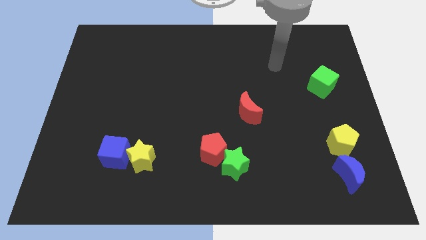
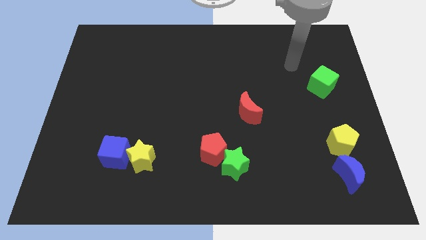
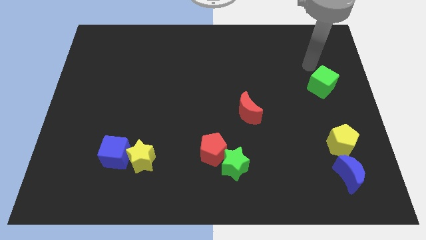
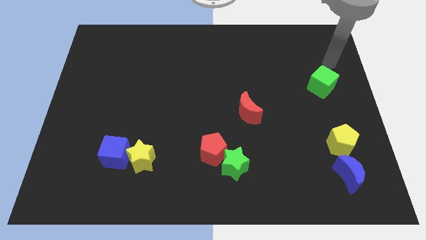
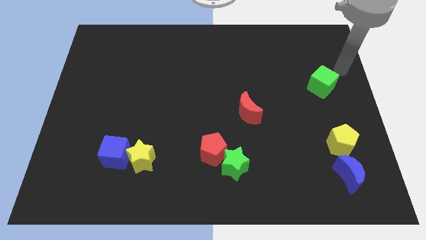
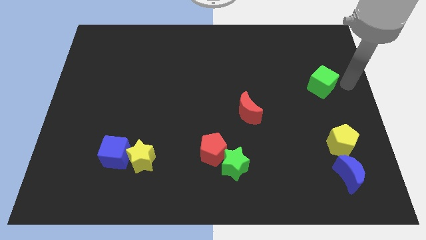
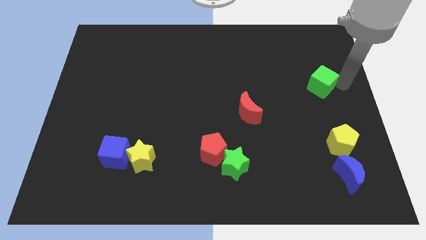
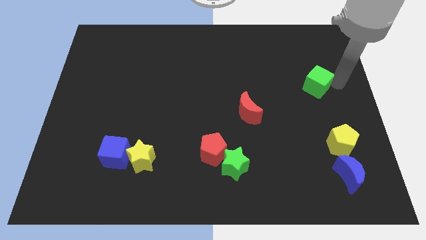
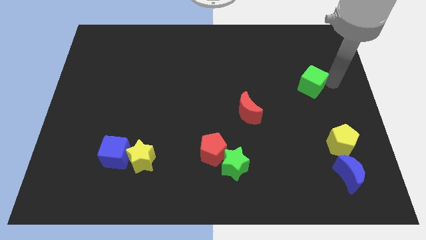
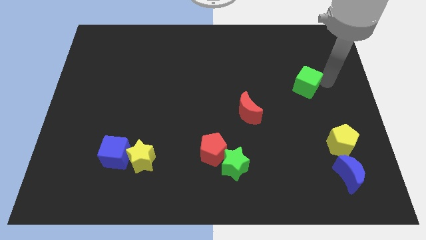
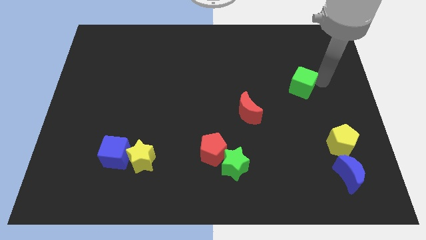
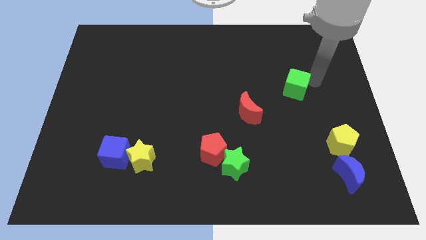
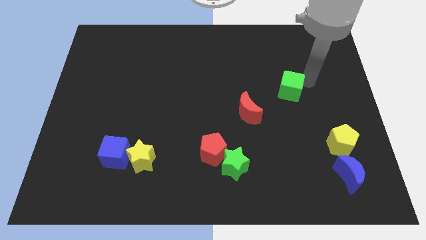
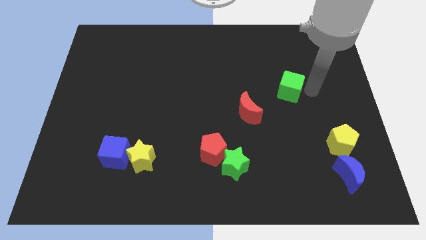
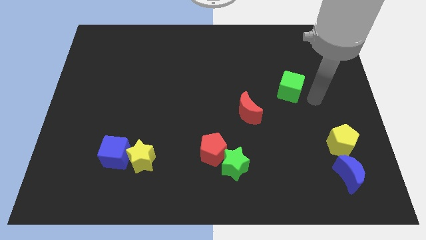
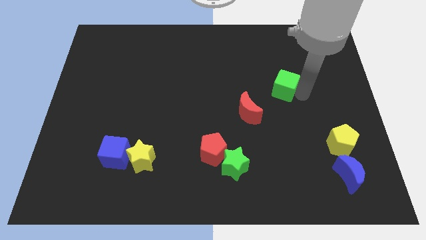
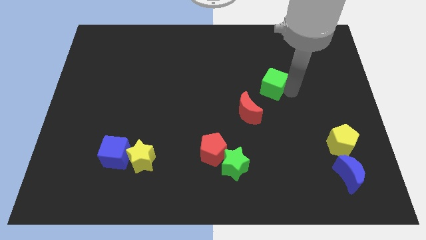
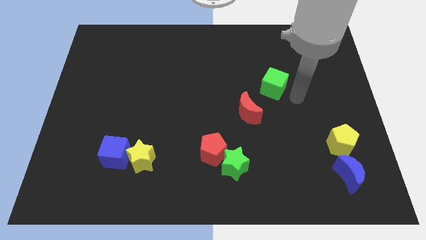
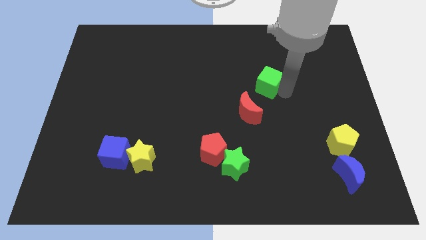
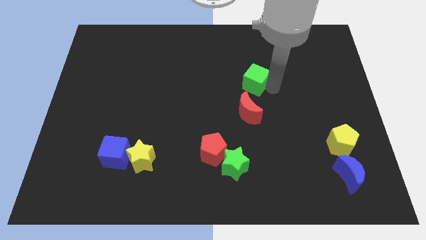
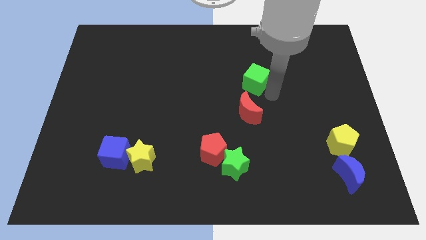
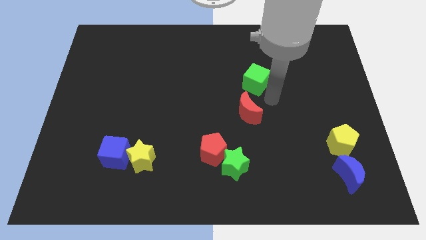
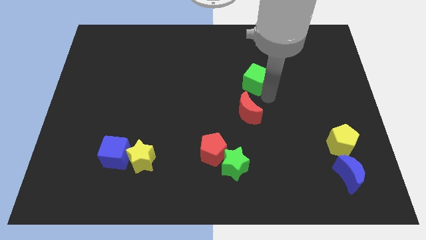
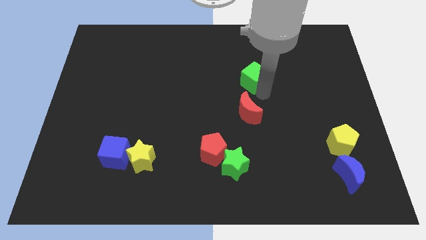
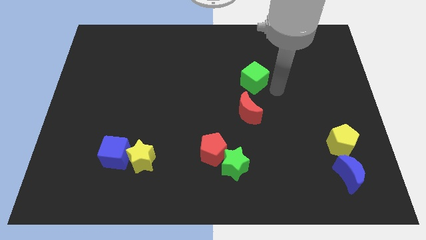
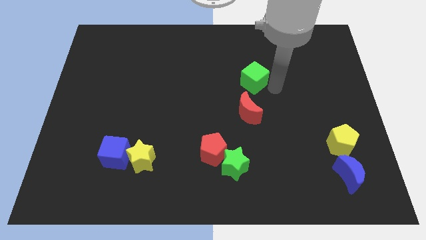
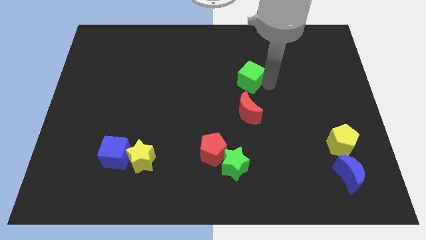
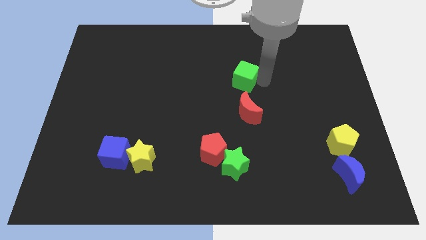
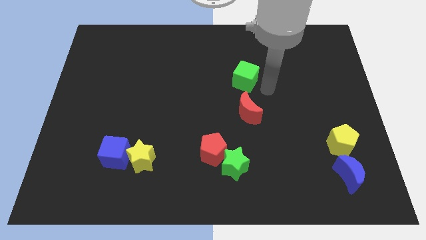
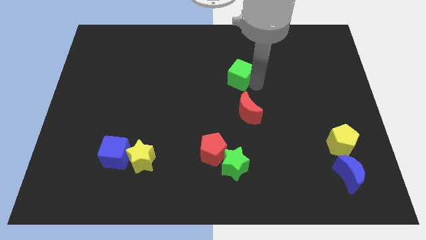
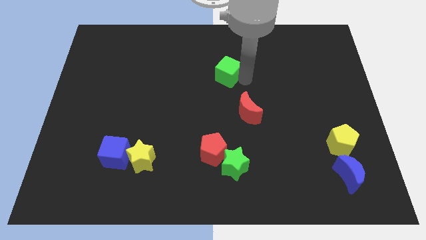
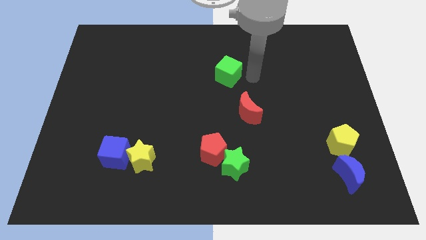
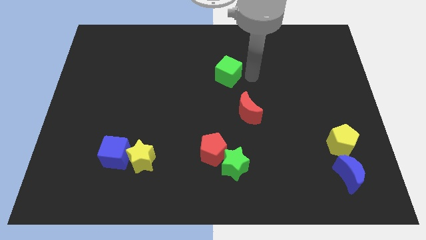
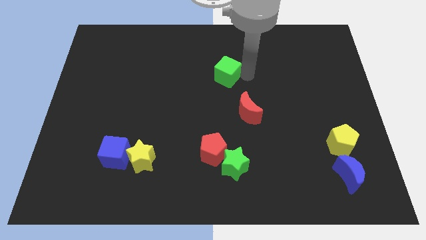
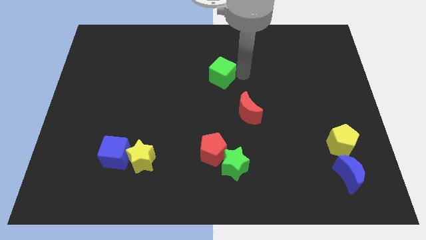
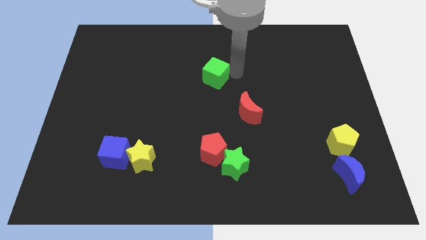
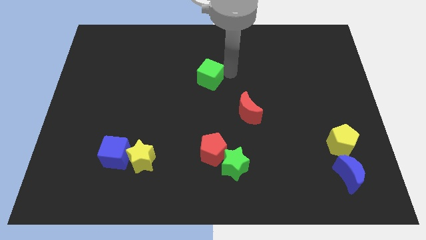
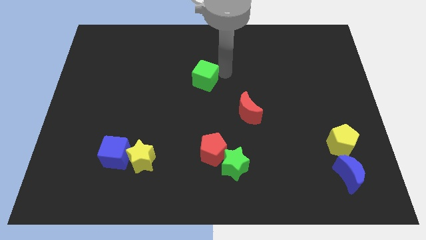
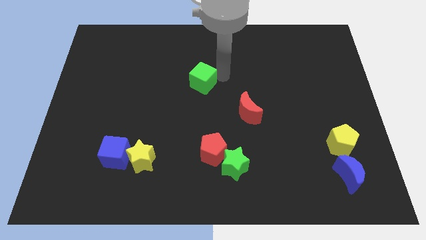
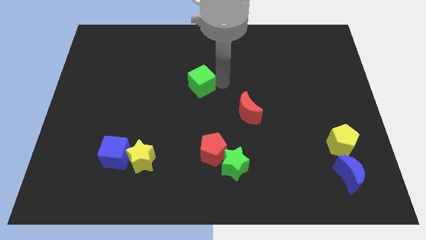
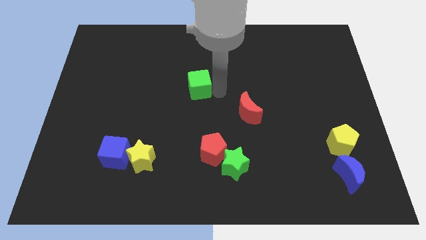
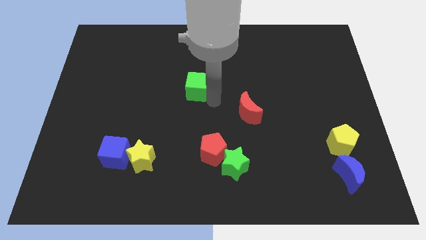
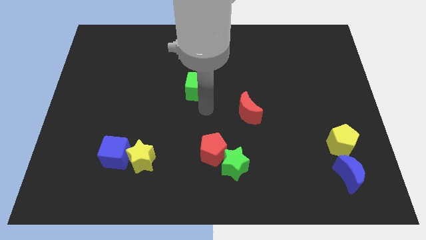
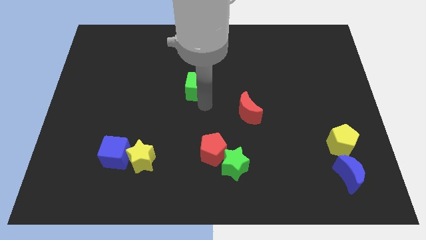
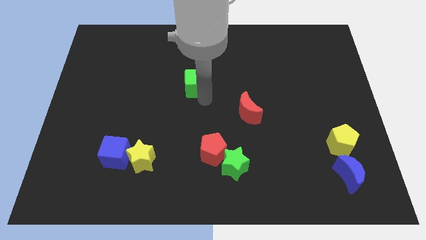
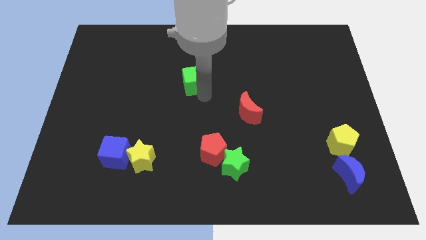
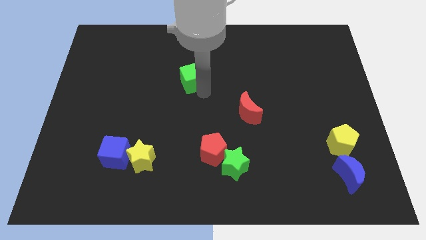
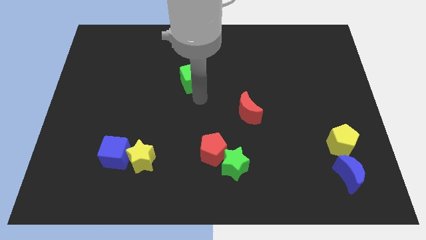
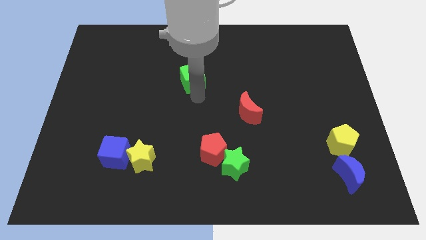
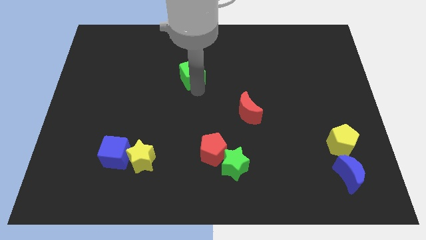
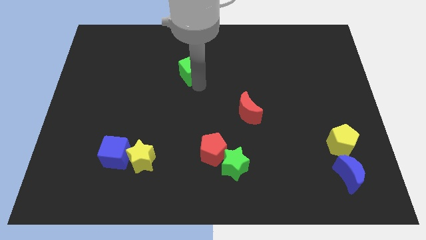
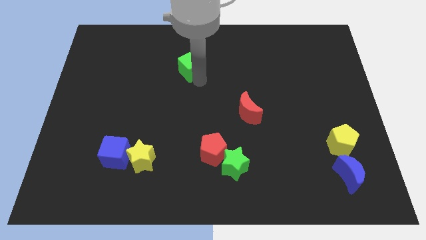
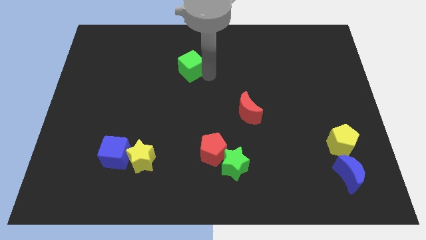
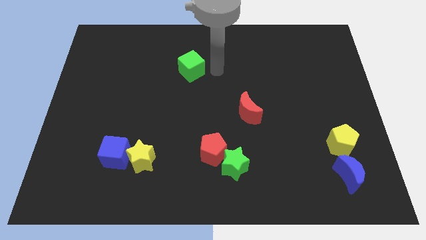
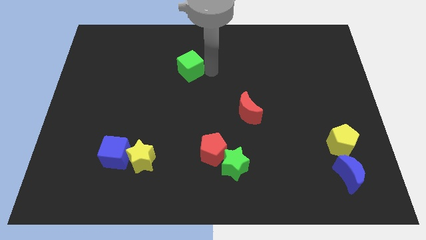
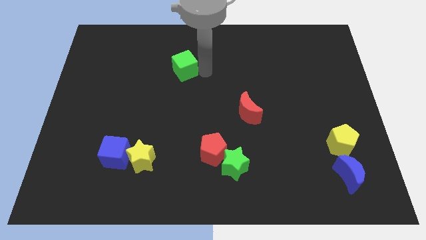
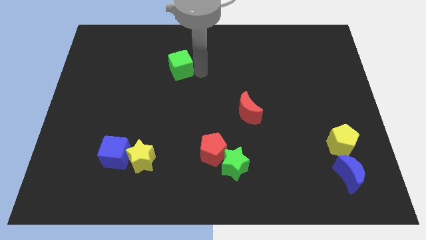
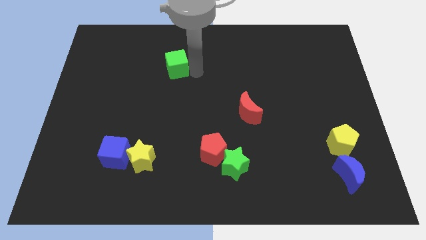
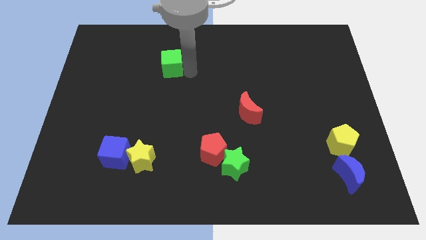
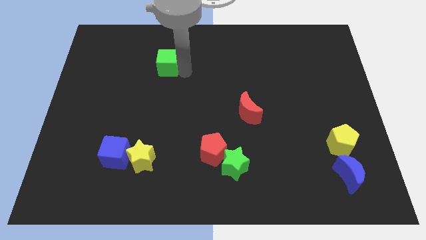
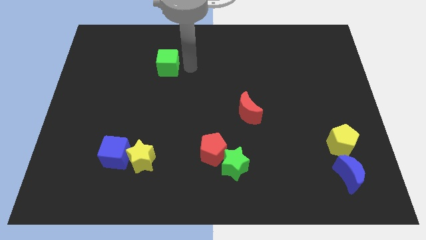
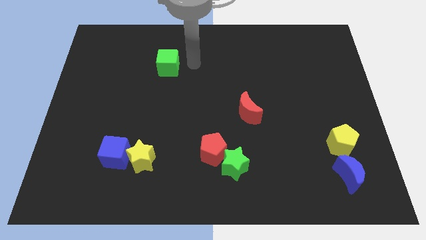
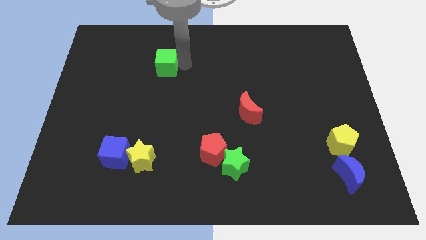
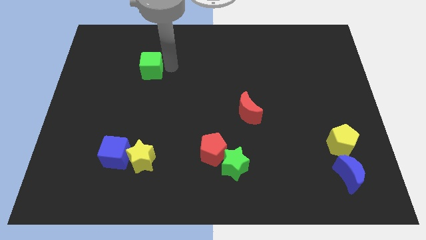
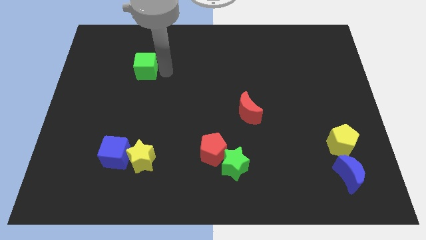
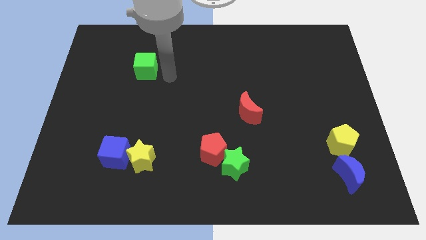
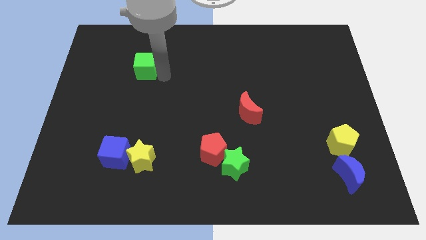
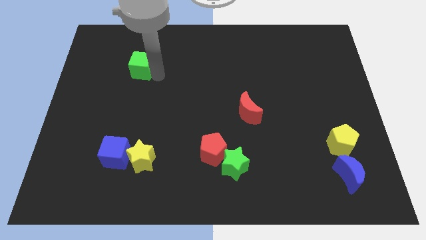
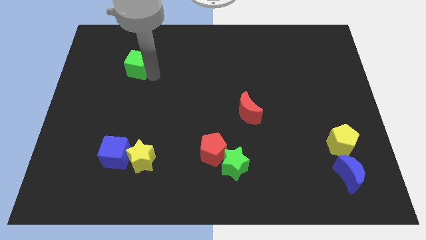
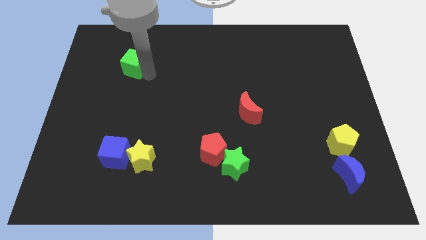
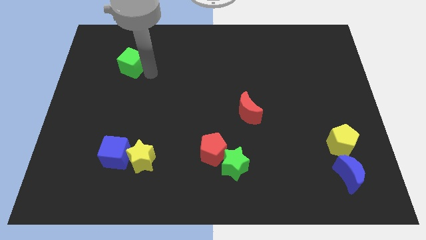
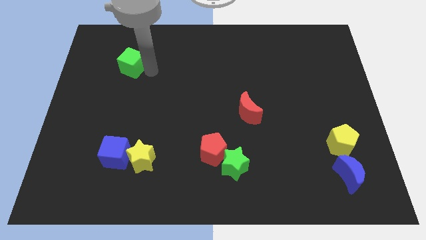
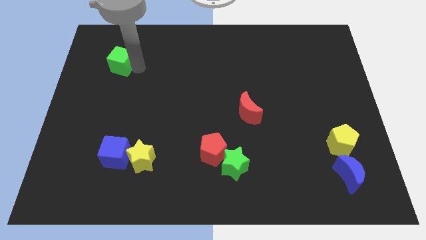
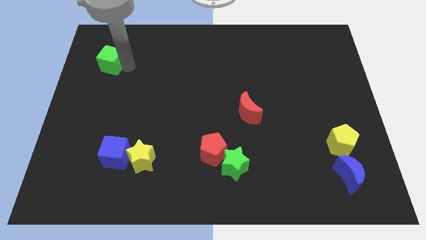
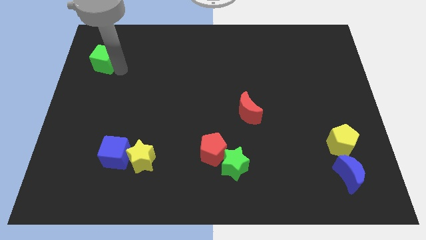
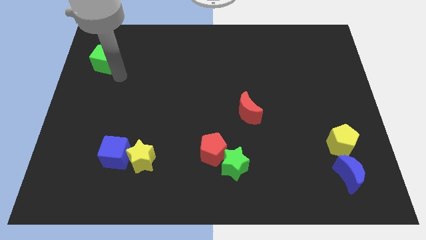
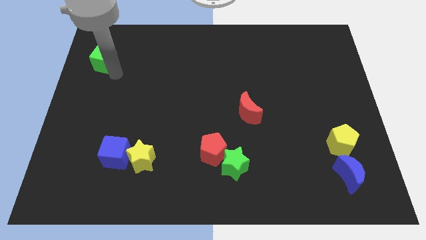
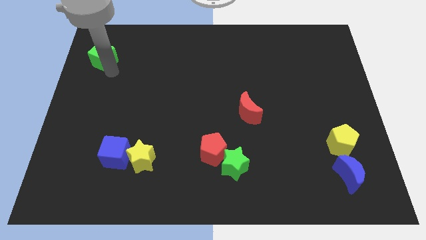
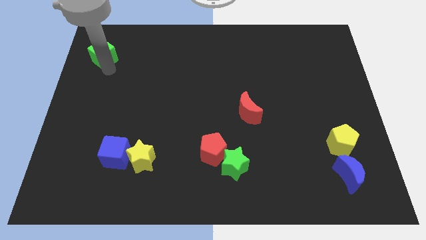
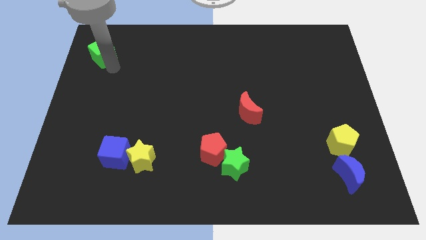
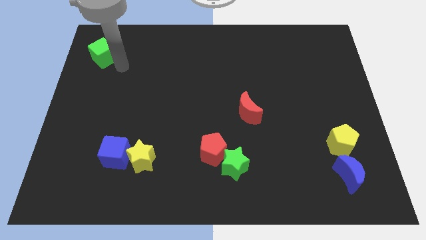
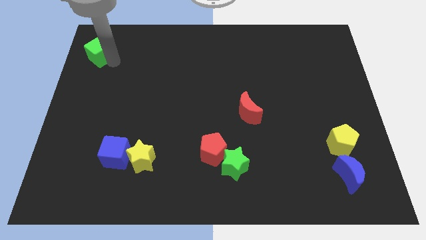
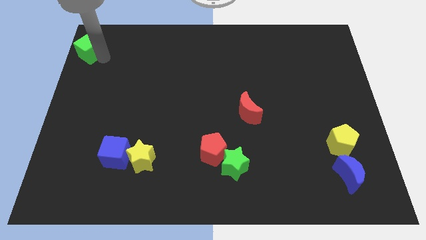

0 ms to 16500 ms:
push the green cube to the top left of the board
